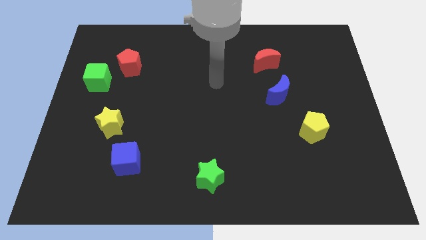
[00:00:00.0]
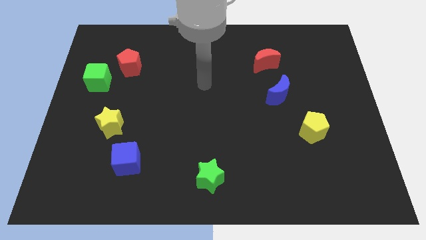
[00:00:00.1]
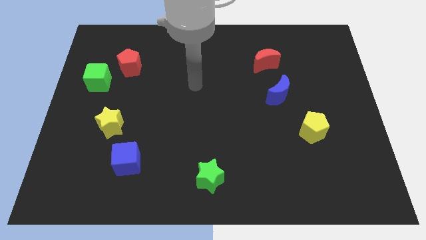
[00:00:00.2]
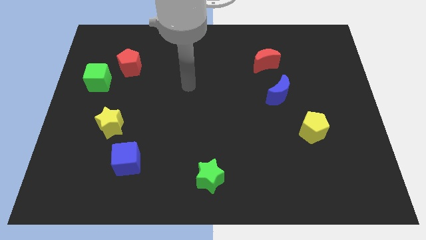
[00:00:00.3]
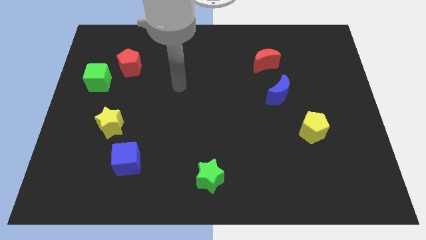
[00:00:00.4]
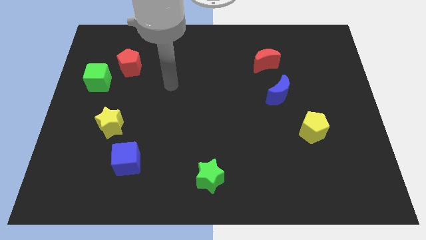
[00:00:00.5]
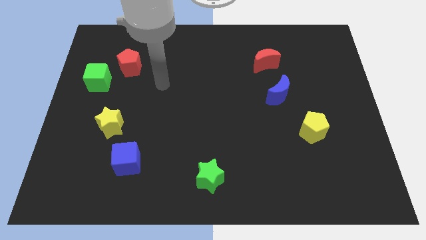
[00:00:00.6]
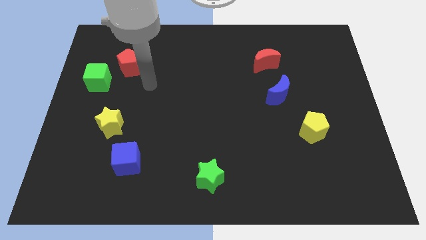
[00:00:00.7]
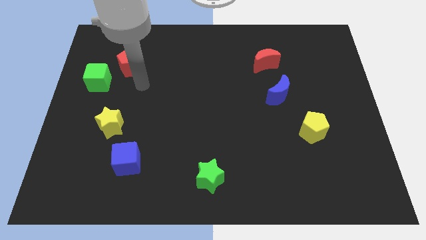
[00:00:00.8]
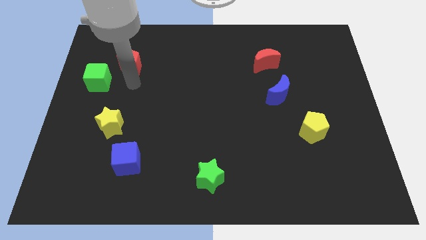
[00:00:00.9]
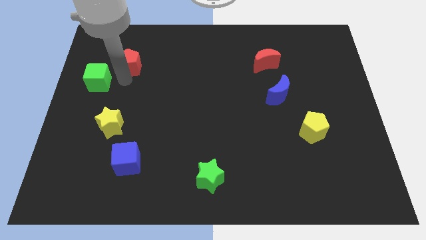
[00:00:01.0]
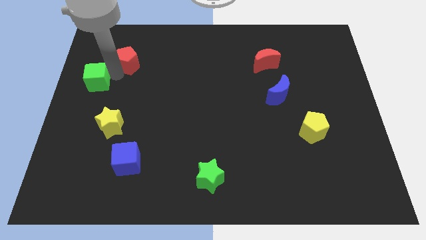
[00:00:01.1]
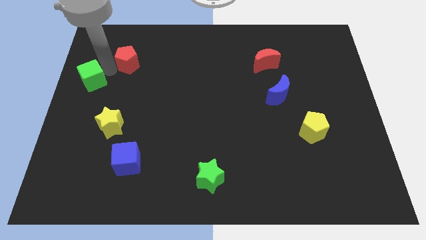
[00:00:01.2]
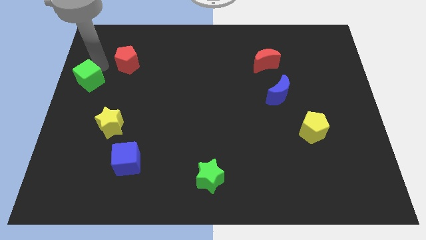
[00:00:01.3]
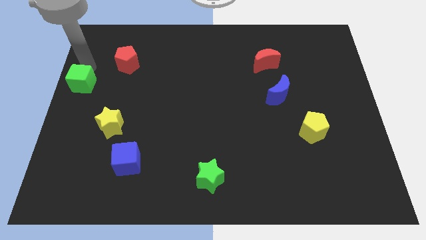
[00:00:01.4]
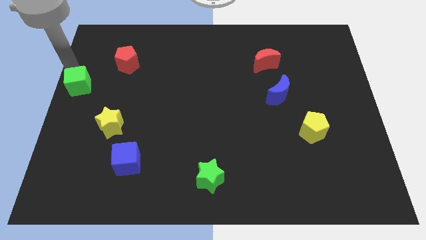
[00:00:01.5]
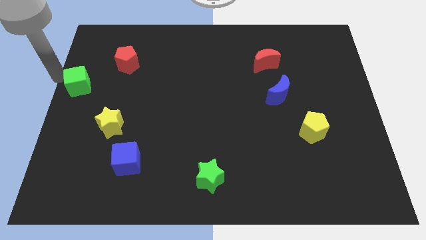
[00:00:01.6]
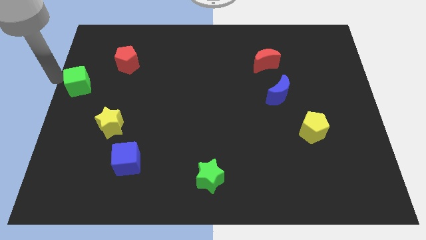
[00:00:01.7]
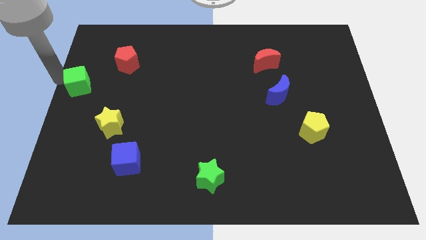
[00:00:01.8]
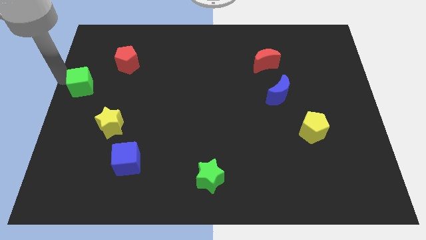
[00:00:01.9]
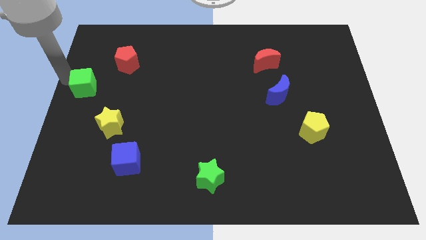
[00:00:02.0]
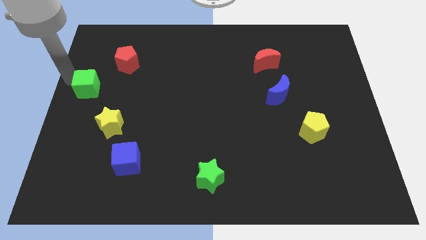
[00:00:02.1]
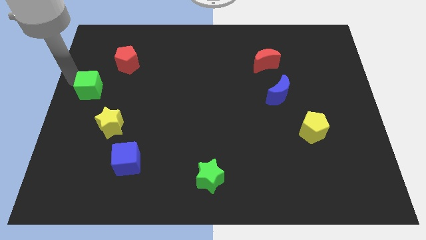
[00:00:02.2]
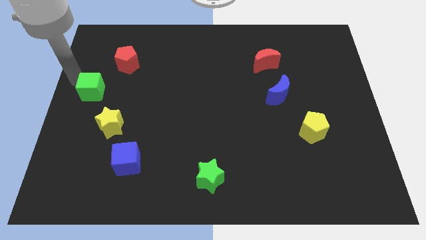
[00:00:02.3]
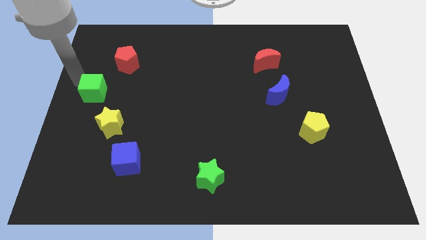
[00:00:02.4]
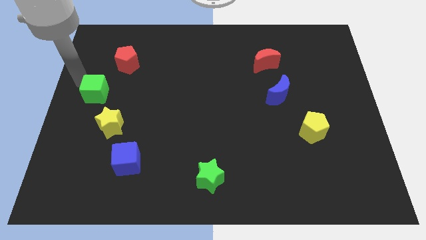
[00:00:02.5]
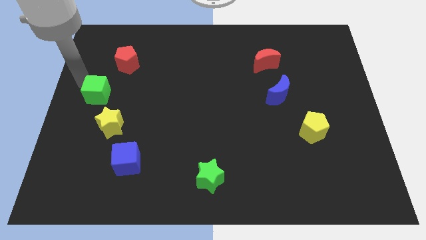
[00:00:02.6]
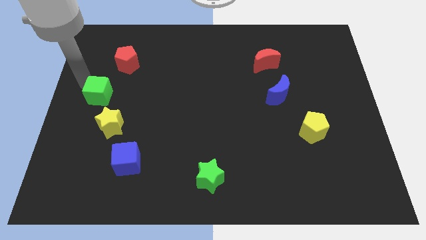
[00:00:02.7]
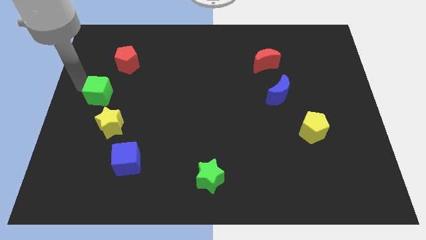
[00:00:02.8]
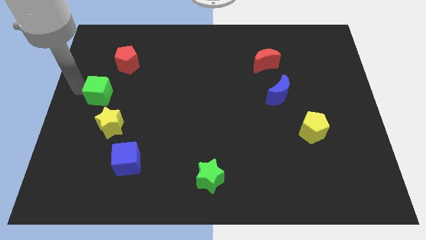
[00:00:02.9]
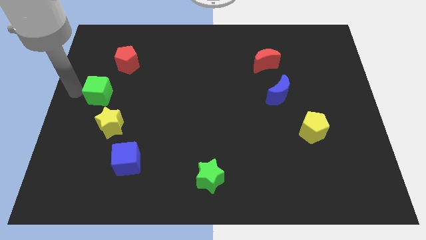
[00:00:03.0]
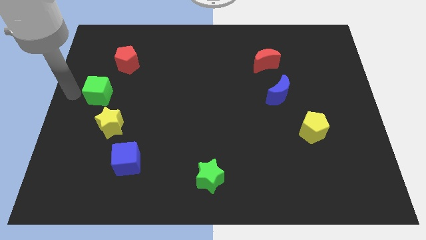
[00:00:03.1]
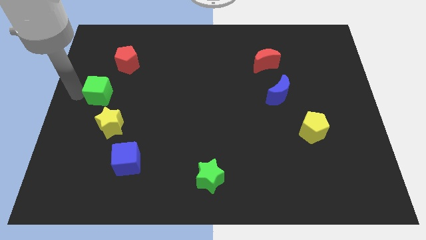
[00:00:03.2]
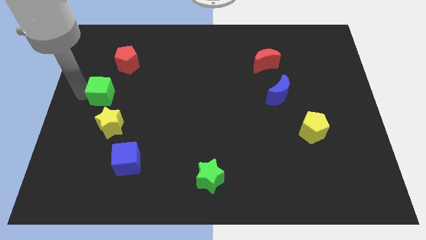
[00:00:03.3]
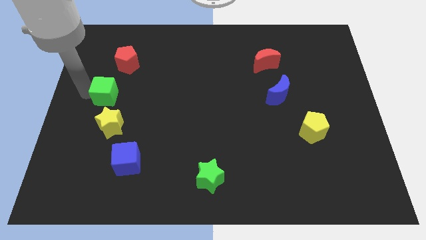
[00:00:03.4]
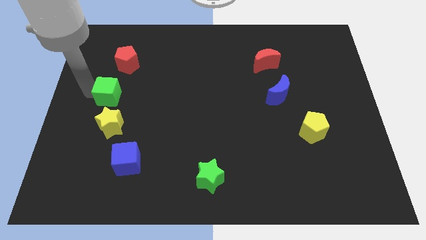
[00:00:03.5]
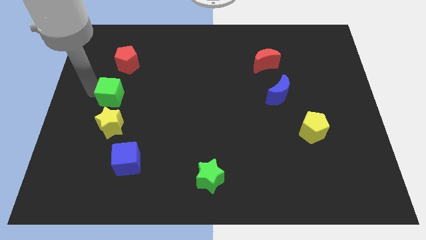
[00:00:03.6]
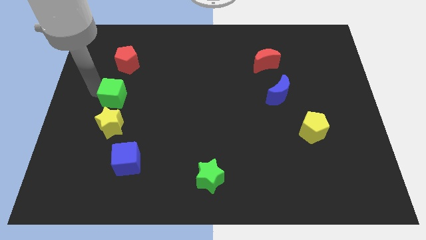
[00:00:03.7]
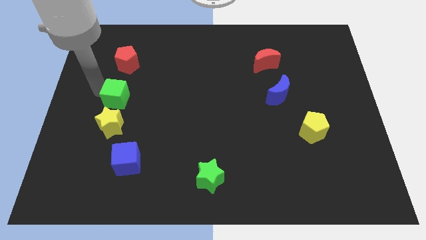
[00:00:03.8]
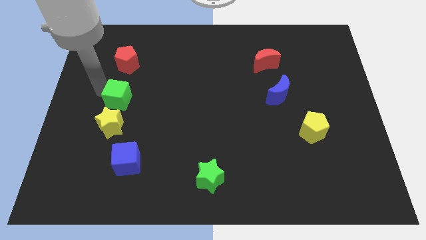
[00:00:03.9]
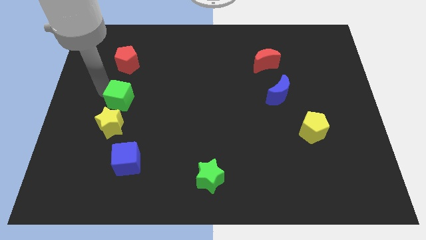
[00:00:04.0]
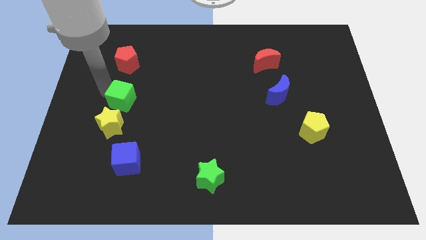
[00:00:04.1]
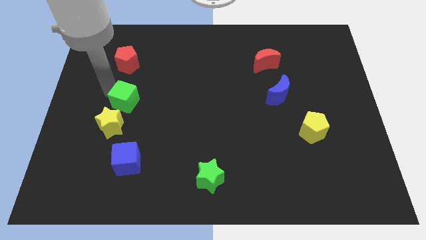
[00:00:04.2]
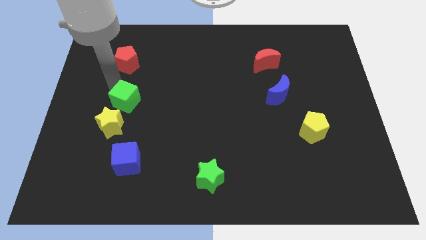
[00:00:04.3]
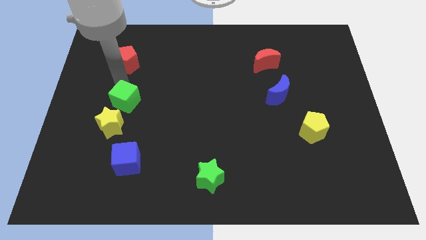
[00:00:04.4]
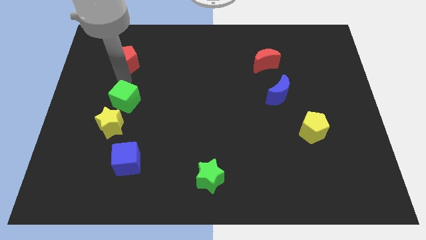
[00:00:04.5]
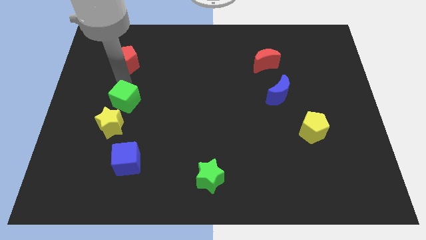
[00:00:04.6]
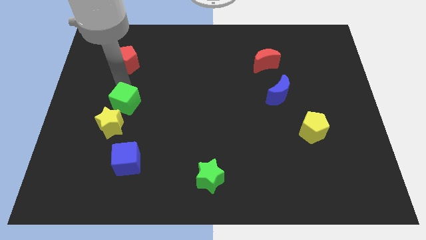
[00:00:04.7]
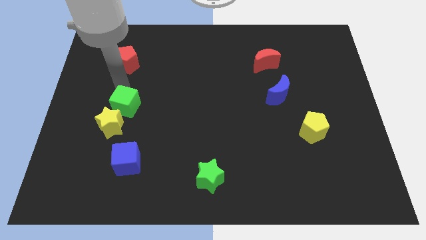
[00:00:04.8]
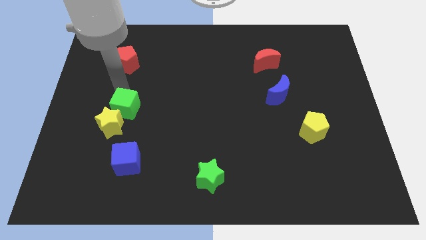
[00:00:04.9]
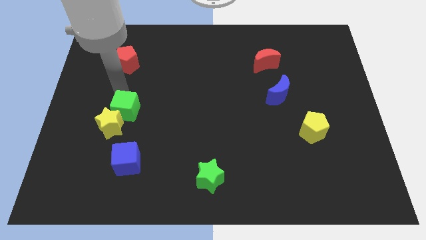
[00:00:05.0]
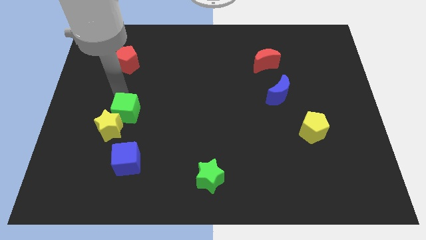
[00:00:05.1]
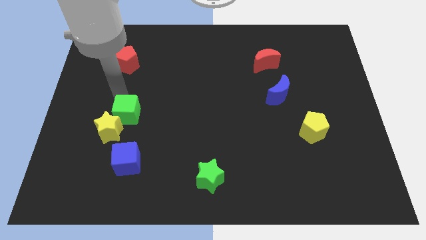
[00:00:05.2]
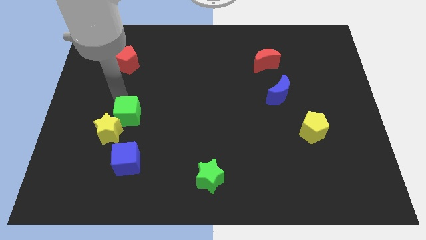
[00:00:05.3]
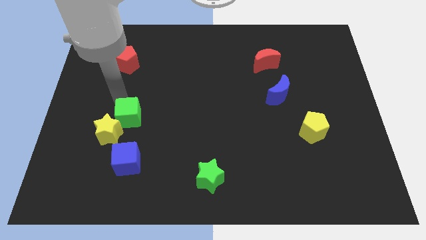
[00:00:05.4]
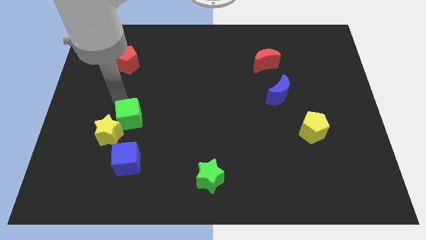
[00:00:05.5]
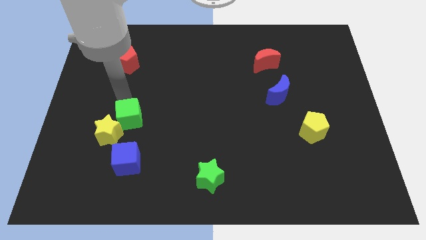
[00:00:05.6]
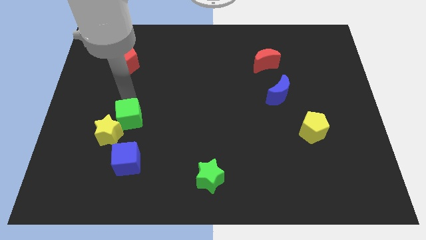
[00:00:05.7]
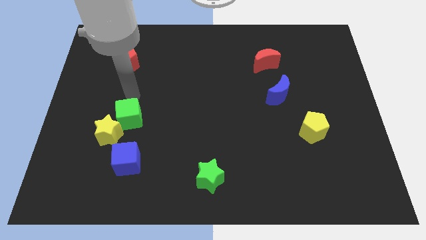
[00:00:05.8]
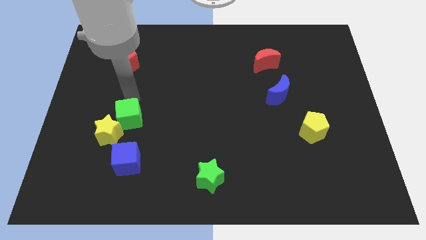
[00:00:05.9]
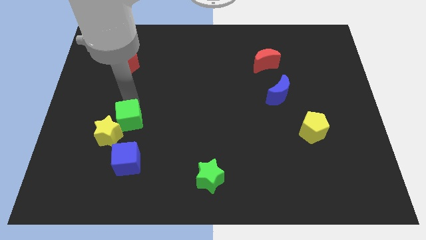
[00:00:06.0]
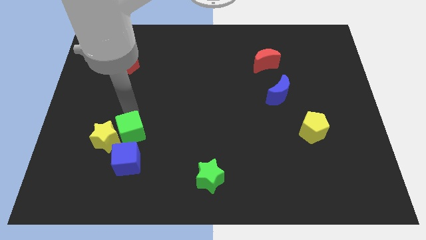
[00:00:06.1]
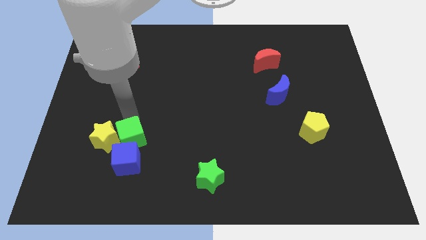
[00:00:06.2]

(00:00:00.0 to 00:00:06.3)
move the green cube close to the blue cube

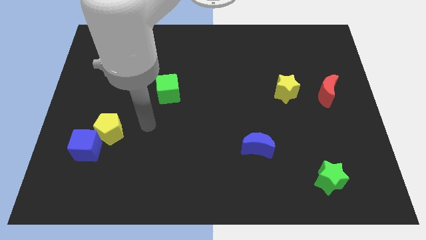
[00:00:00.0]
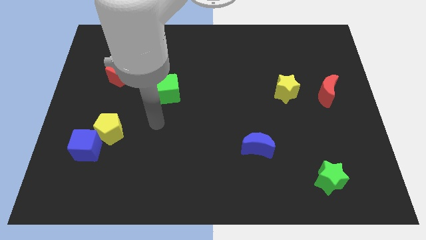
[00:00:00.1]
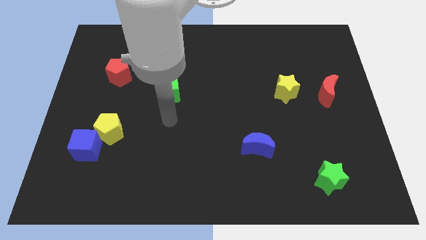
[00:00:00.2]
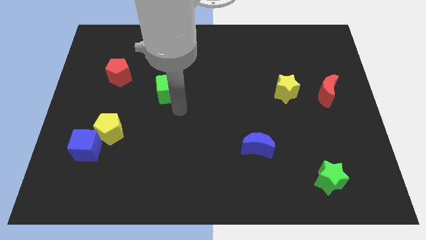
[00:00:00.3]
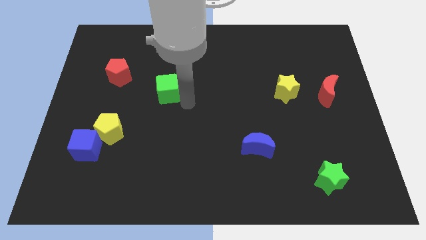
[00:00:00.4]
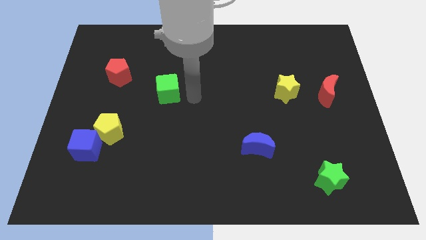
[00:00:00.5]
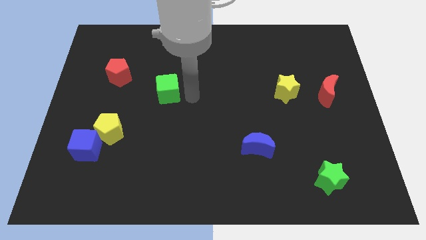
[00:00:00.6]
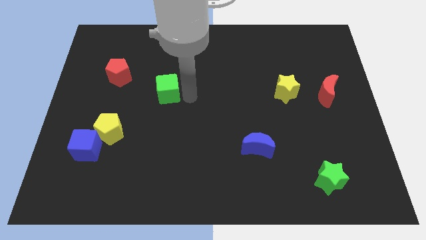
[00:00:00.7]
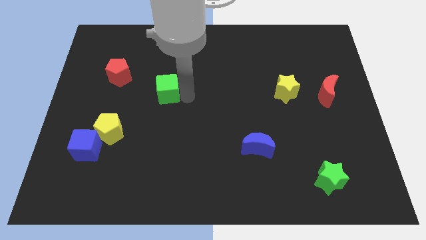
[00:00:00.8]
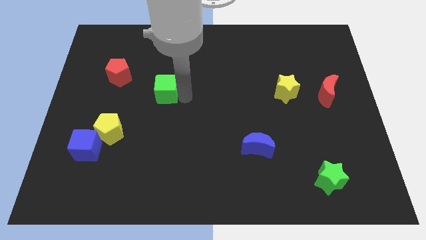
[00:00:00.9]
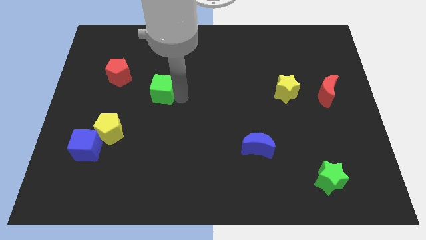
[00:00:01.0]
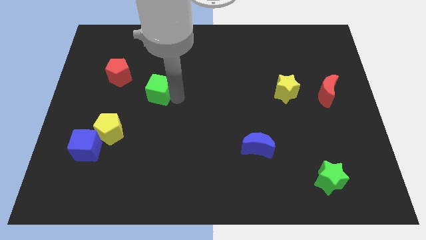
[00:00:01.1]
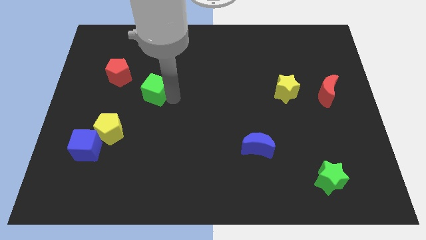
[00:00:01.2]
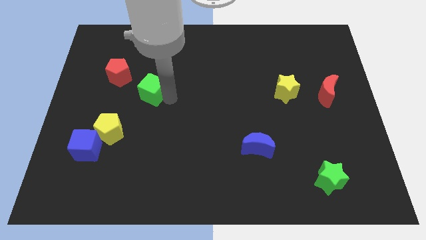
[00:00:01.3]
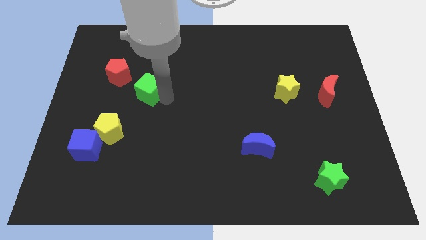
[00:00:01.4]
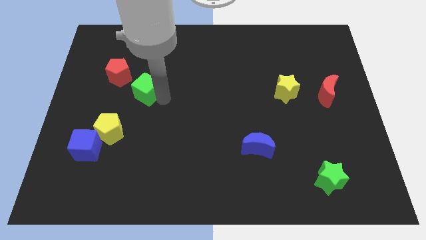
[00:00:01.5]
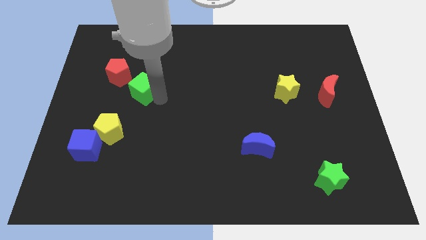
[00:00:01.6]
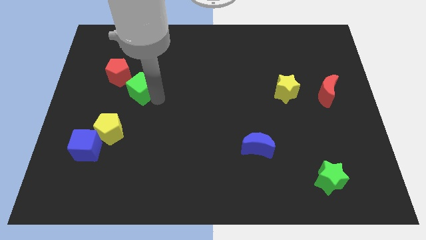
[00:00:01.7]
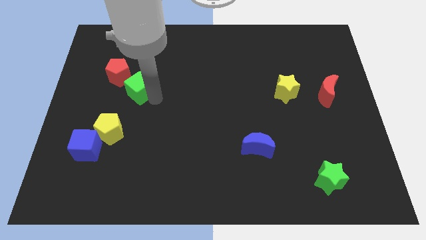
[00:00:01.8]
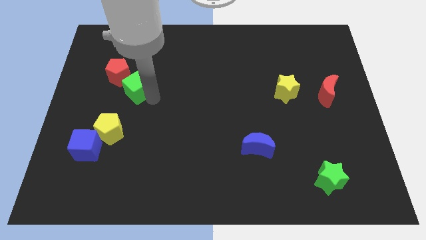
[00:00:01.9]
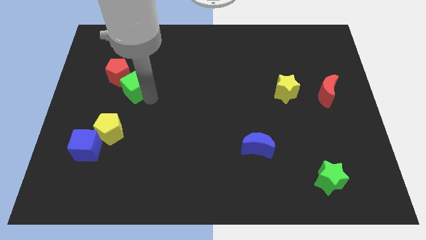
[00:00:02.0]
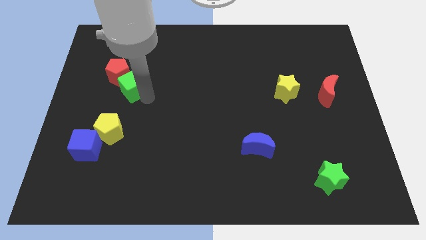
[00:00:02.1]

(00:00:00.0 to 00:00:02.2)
move the green cube next to the red pentagon
